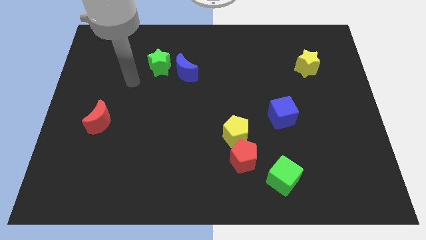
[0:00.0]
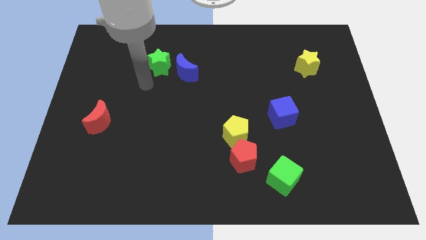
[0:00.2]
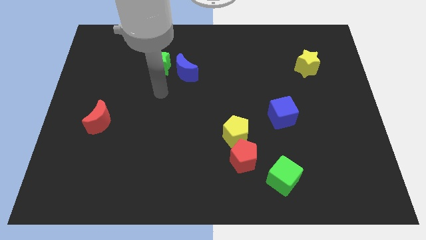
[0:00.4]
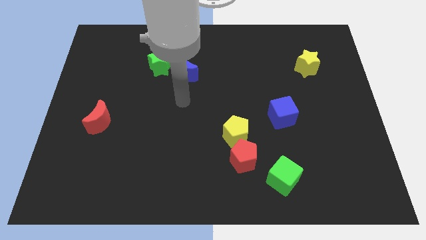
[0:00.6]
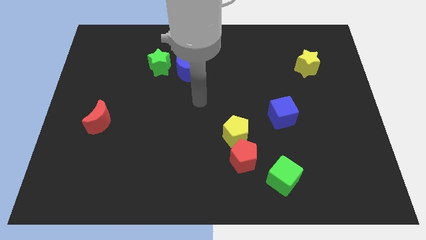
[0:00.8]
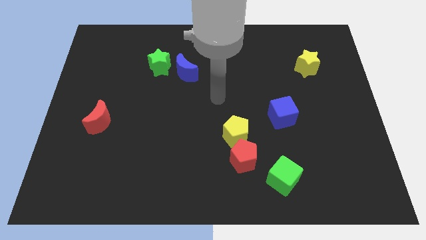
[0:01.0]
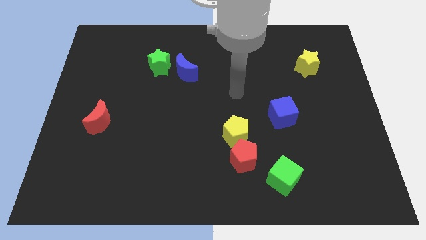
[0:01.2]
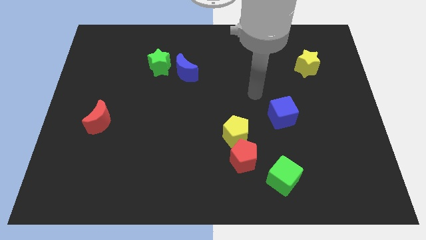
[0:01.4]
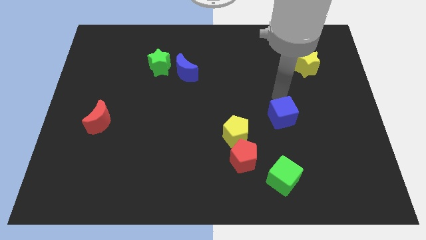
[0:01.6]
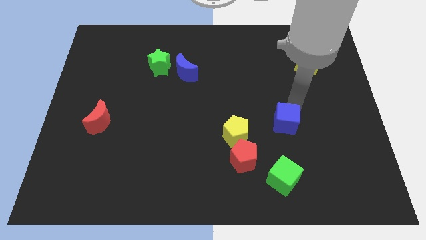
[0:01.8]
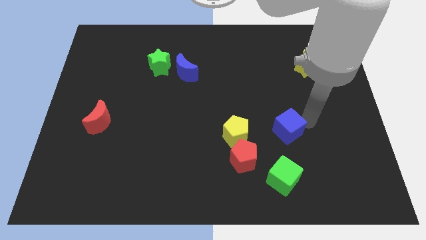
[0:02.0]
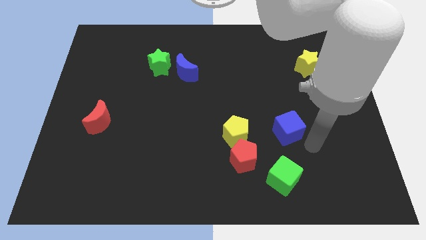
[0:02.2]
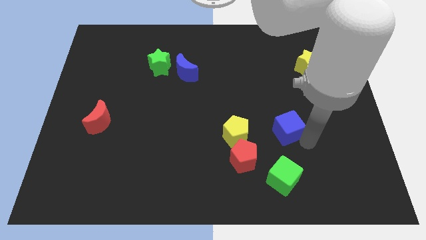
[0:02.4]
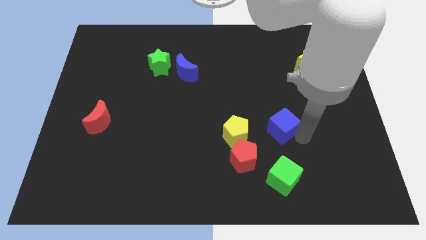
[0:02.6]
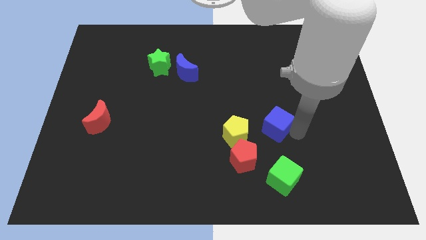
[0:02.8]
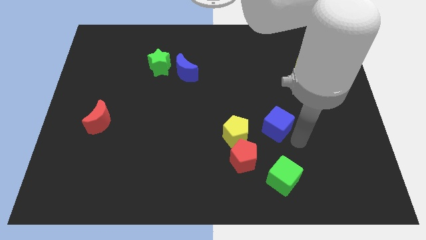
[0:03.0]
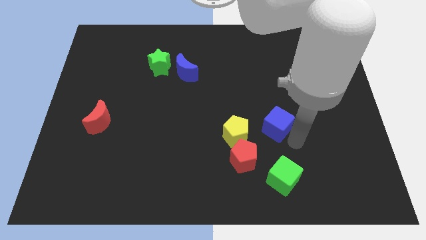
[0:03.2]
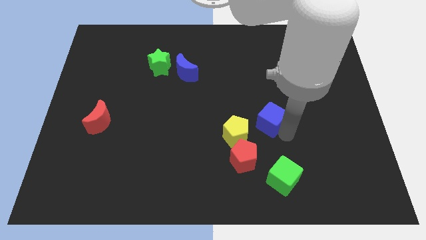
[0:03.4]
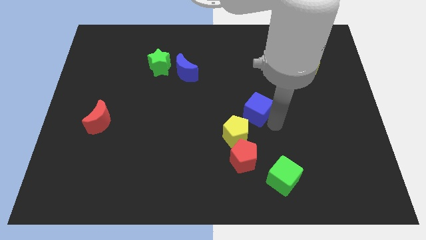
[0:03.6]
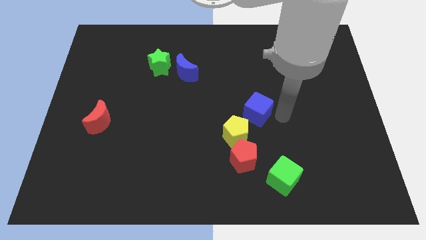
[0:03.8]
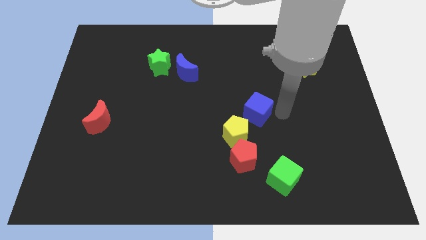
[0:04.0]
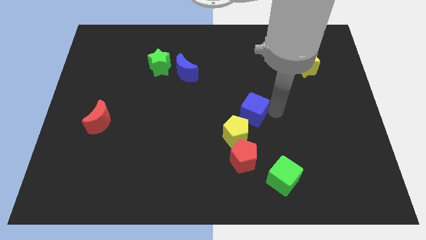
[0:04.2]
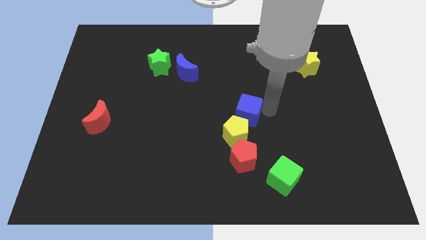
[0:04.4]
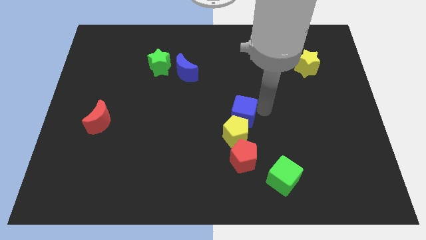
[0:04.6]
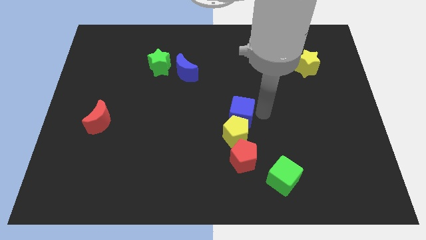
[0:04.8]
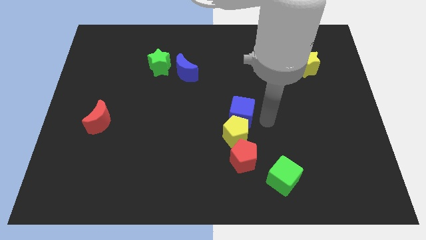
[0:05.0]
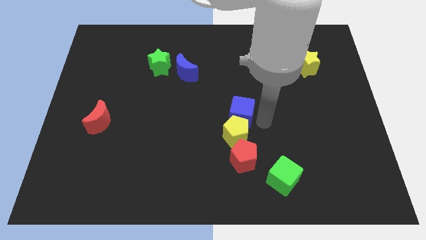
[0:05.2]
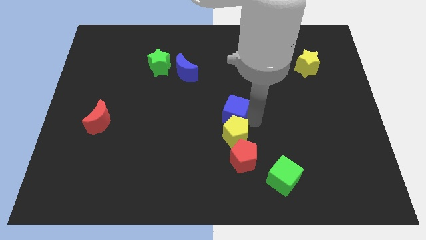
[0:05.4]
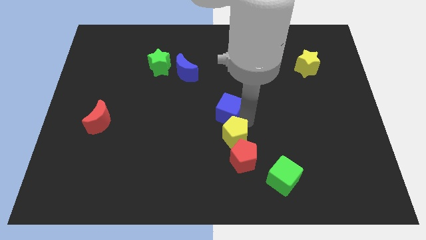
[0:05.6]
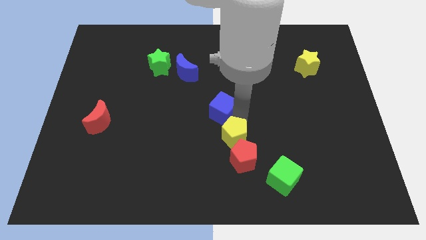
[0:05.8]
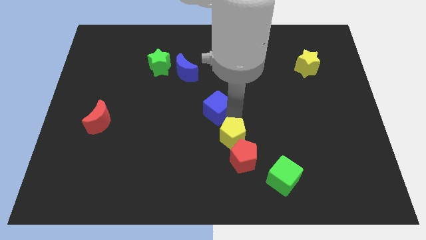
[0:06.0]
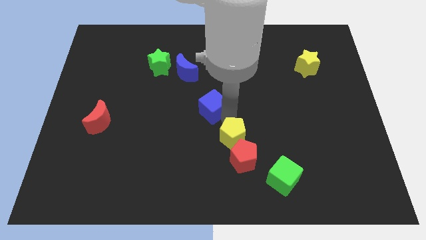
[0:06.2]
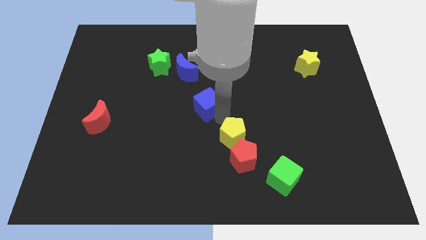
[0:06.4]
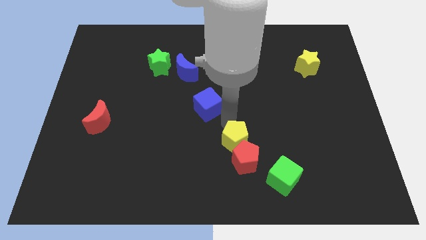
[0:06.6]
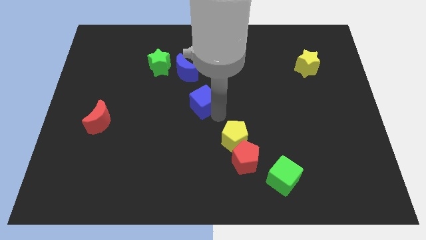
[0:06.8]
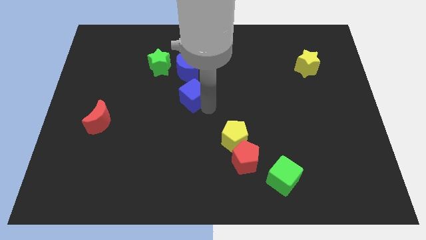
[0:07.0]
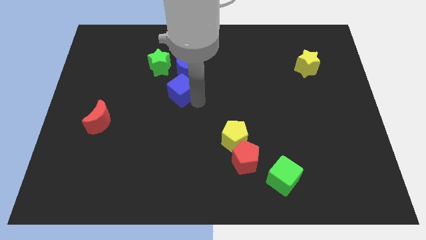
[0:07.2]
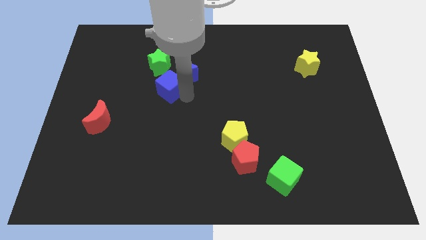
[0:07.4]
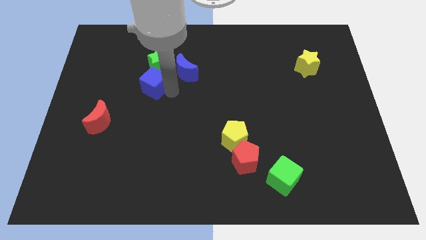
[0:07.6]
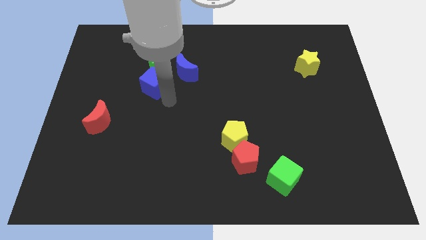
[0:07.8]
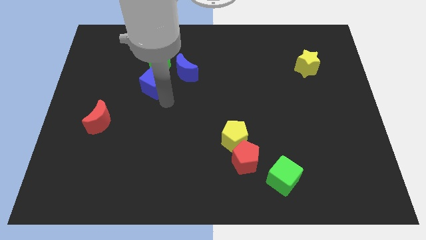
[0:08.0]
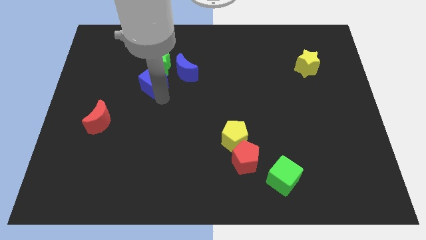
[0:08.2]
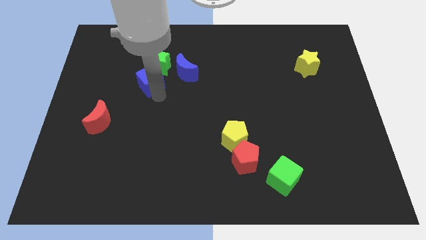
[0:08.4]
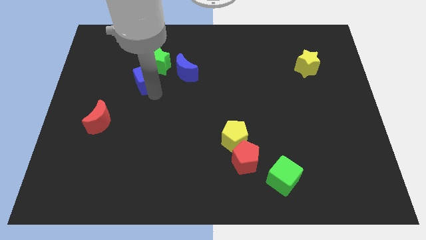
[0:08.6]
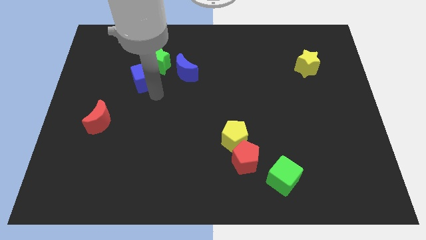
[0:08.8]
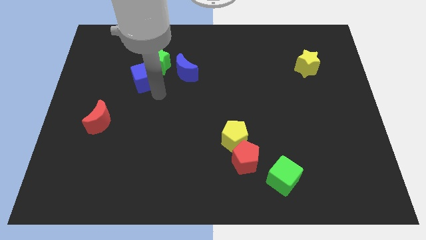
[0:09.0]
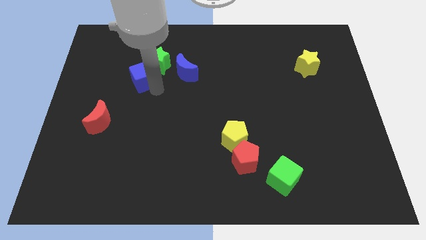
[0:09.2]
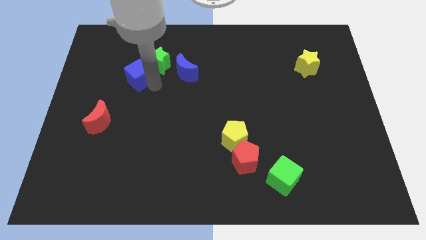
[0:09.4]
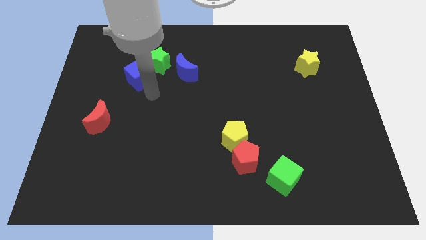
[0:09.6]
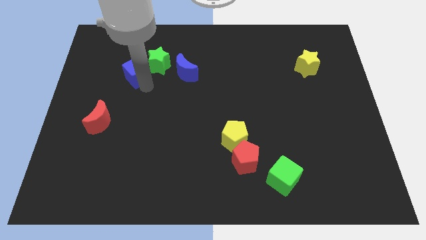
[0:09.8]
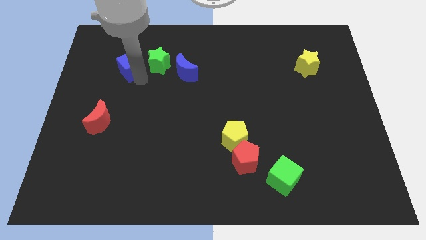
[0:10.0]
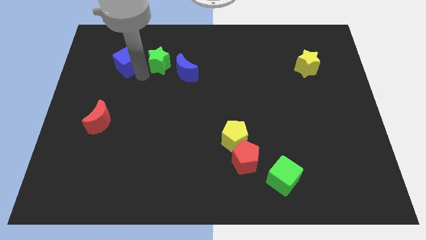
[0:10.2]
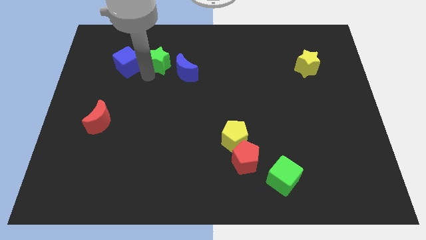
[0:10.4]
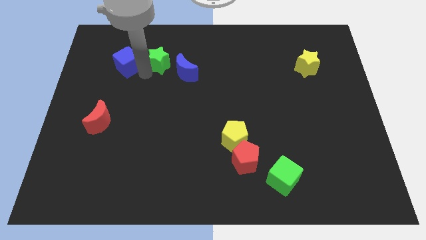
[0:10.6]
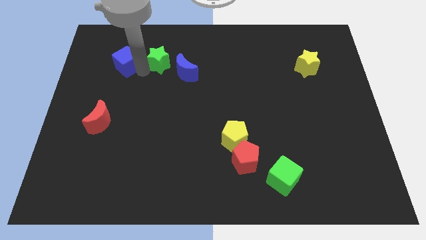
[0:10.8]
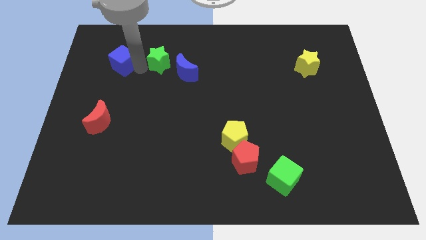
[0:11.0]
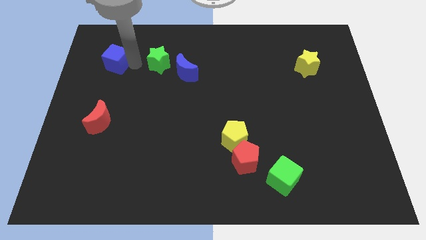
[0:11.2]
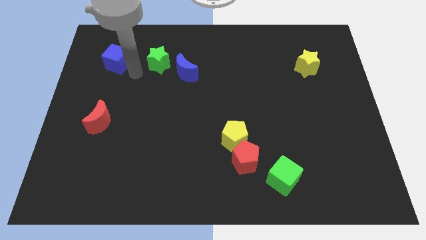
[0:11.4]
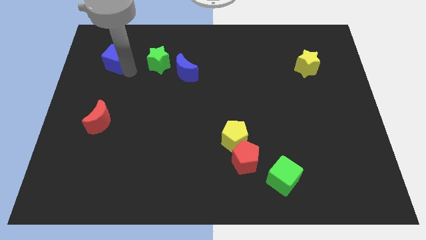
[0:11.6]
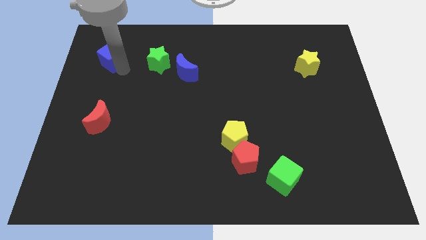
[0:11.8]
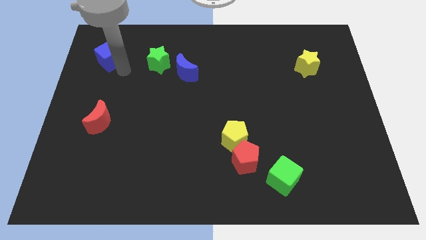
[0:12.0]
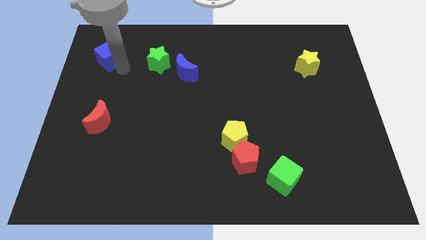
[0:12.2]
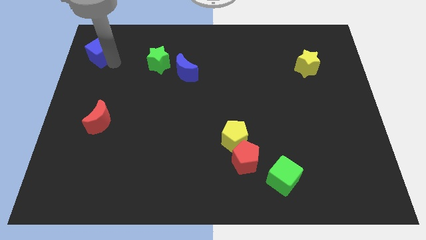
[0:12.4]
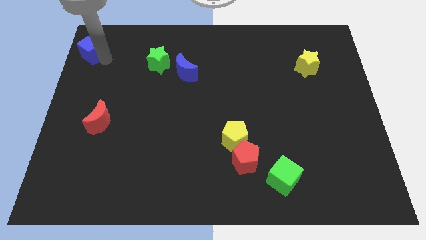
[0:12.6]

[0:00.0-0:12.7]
move the blue cube to the top left corner
